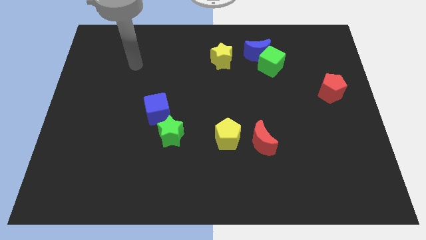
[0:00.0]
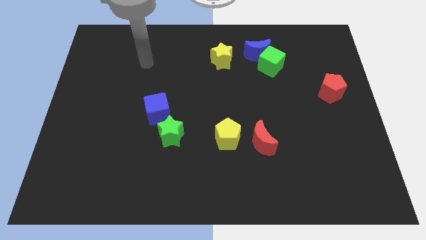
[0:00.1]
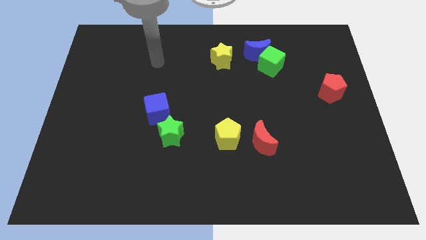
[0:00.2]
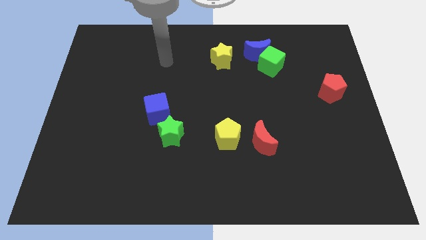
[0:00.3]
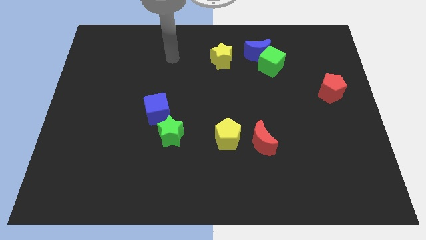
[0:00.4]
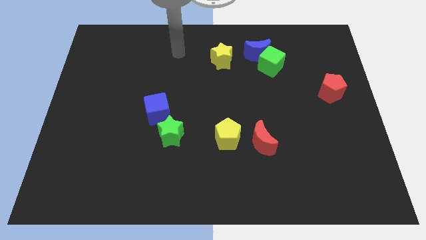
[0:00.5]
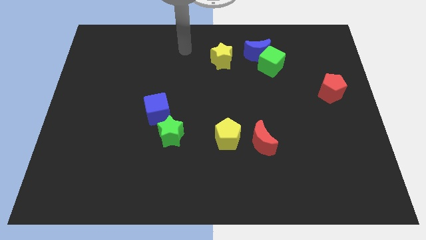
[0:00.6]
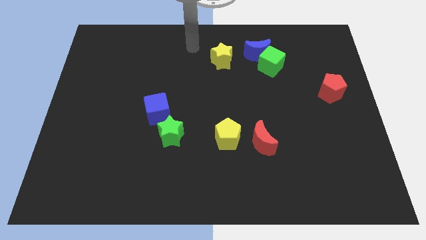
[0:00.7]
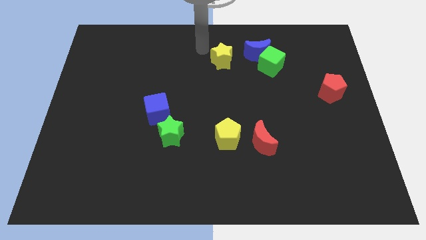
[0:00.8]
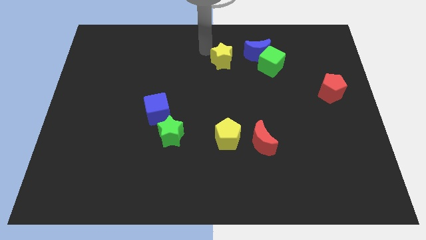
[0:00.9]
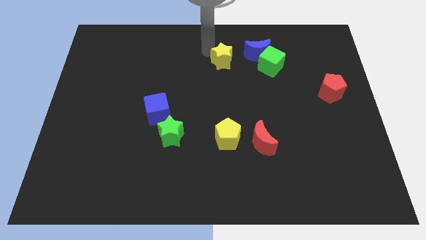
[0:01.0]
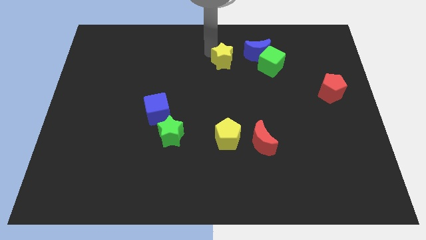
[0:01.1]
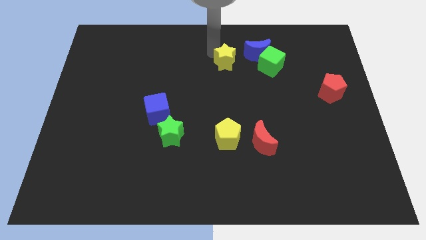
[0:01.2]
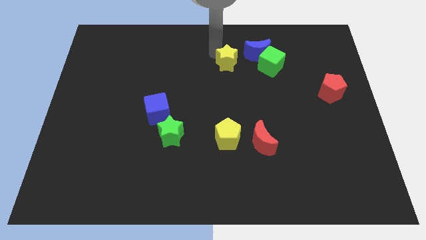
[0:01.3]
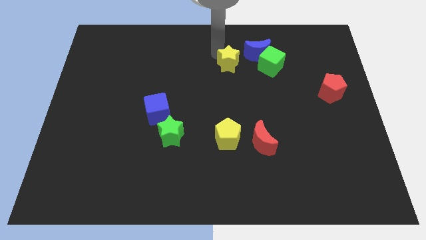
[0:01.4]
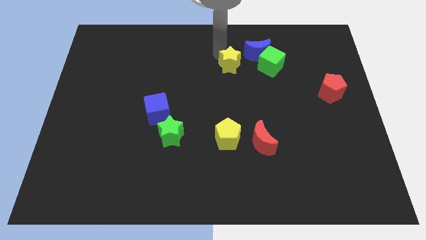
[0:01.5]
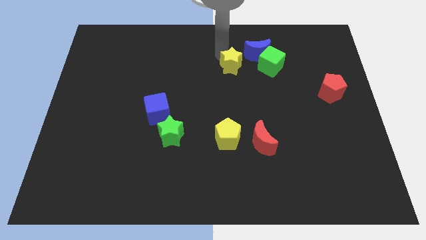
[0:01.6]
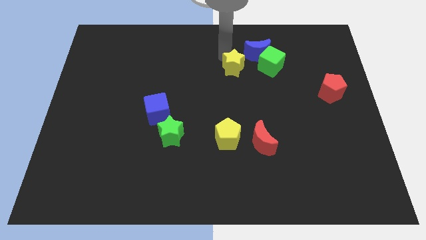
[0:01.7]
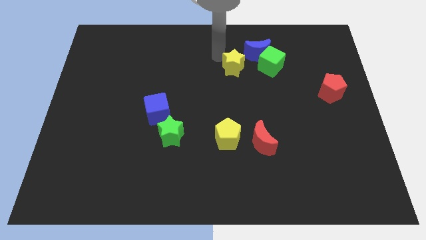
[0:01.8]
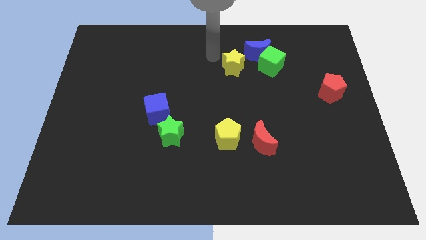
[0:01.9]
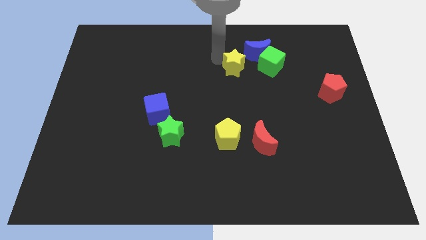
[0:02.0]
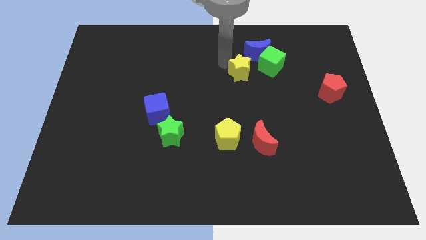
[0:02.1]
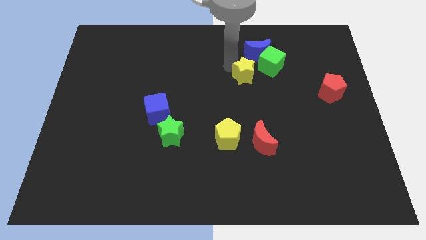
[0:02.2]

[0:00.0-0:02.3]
move the yellow star slightly downwards and right diagonally

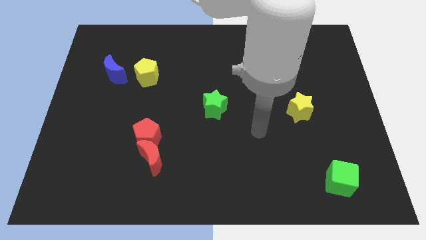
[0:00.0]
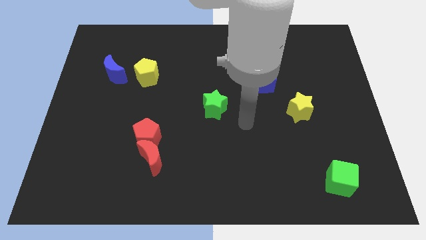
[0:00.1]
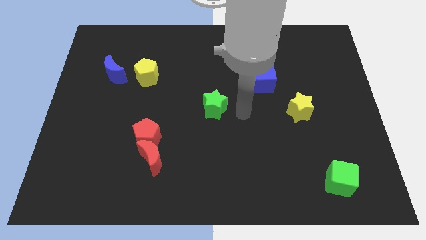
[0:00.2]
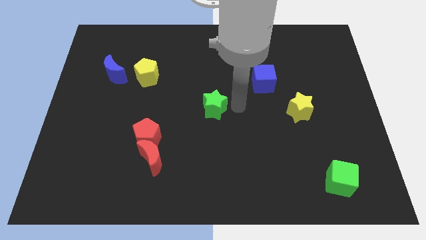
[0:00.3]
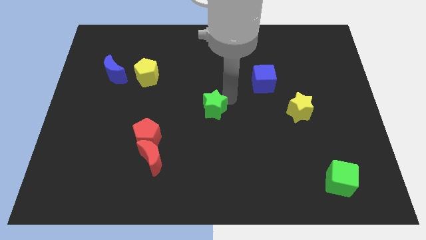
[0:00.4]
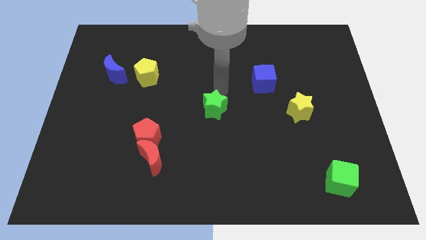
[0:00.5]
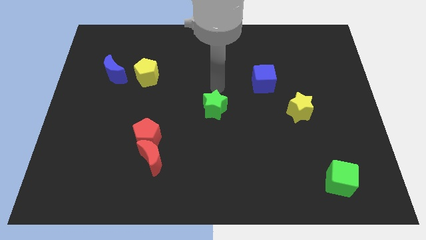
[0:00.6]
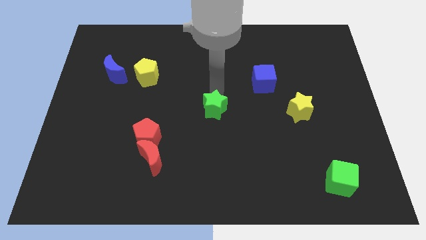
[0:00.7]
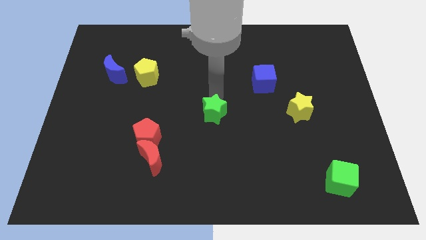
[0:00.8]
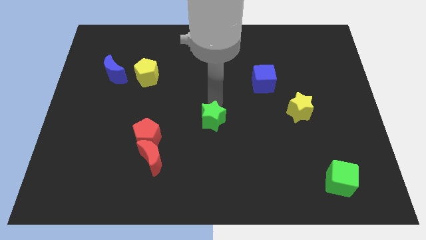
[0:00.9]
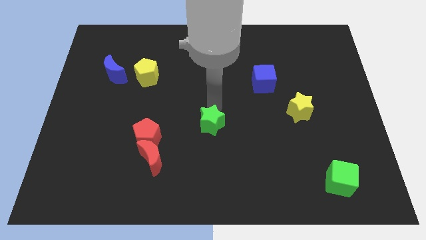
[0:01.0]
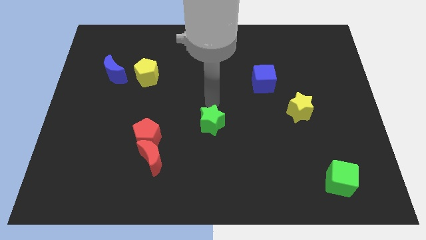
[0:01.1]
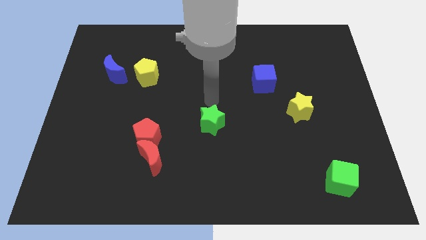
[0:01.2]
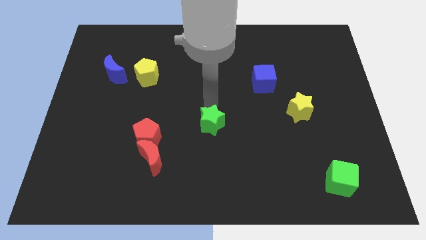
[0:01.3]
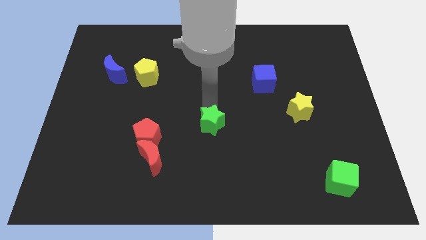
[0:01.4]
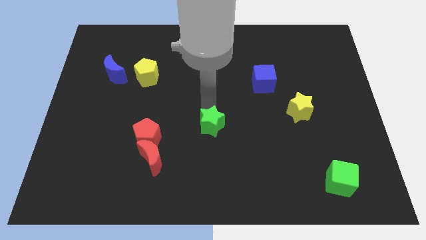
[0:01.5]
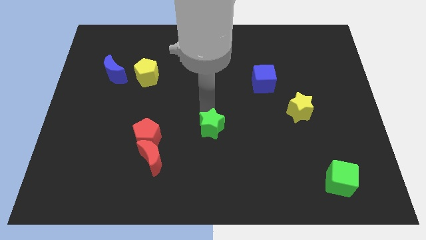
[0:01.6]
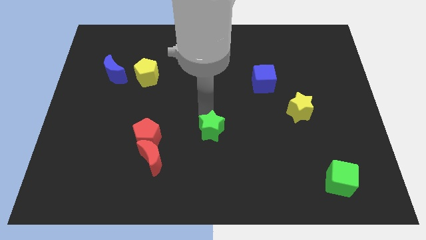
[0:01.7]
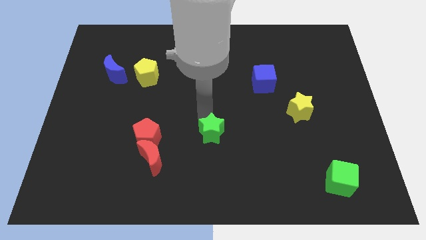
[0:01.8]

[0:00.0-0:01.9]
move the green star down a little

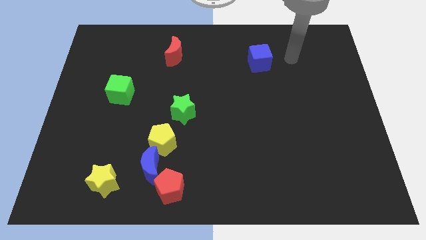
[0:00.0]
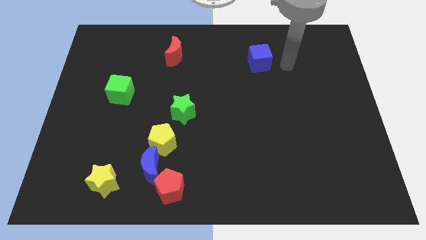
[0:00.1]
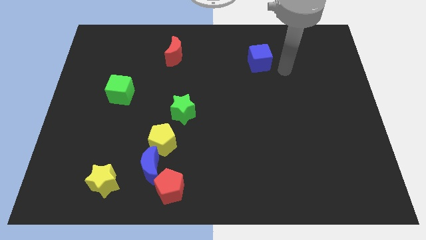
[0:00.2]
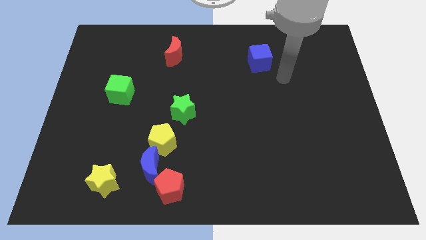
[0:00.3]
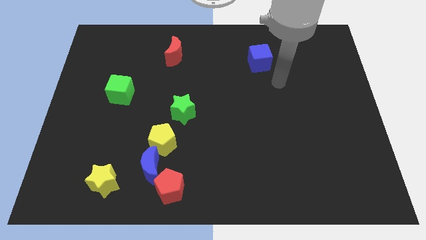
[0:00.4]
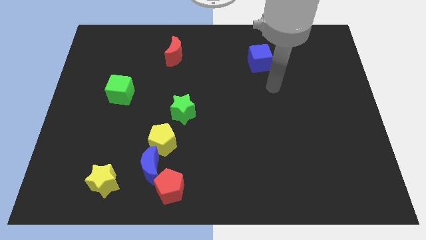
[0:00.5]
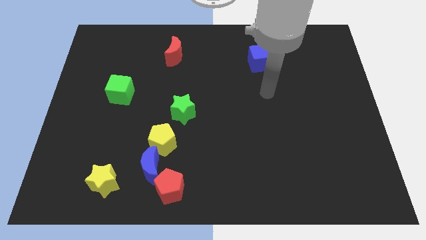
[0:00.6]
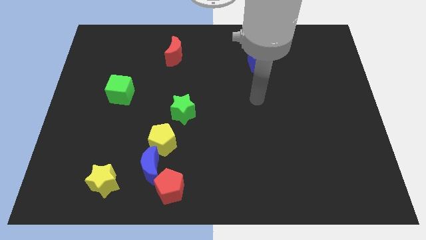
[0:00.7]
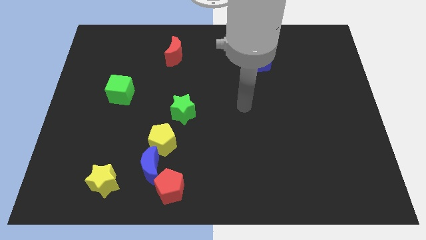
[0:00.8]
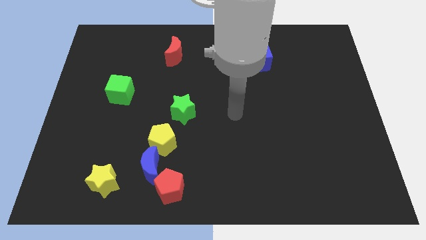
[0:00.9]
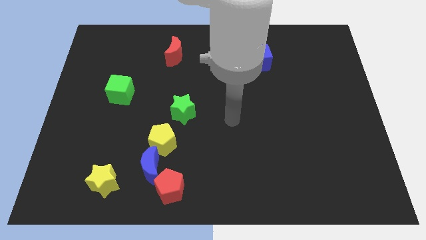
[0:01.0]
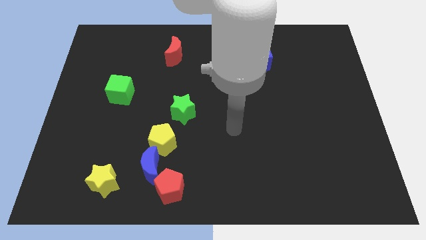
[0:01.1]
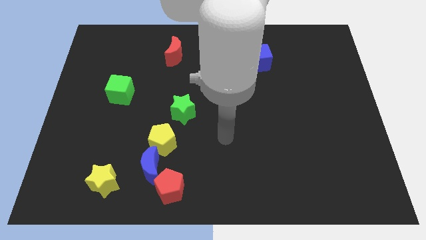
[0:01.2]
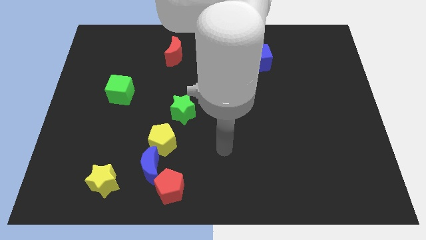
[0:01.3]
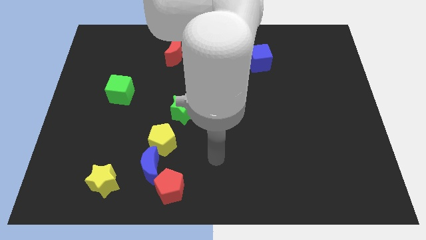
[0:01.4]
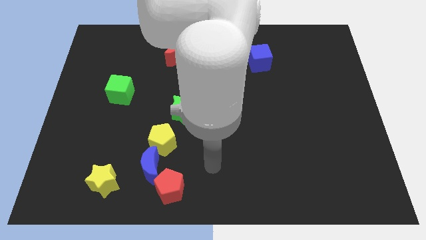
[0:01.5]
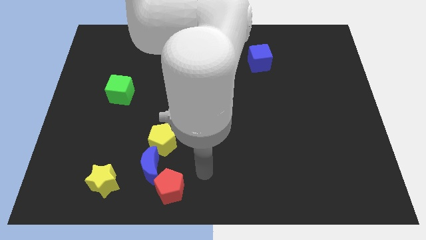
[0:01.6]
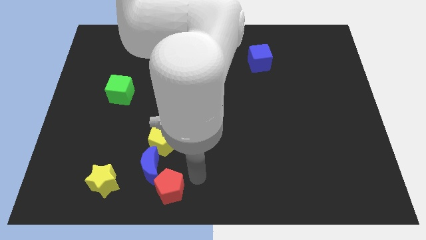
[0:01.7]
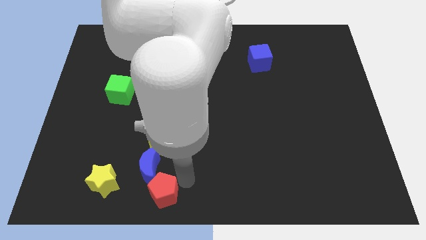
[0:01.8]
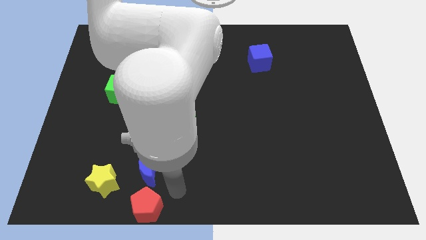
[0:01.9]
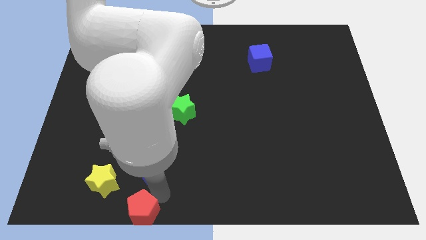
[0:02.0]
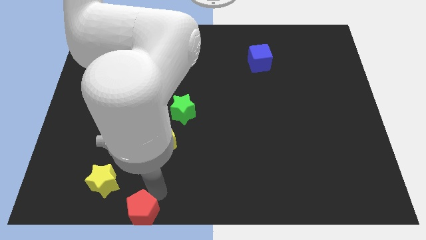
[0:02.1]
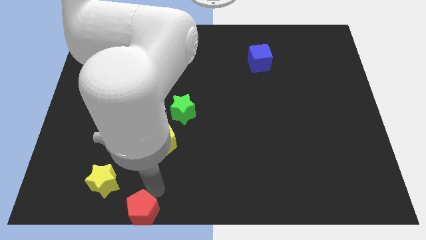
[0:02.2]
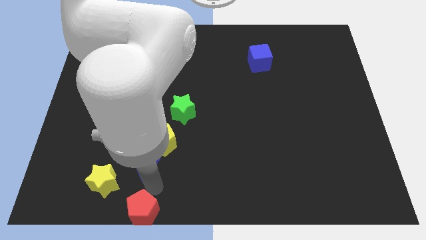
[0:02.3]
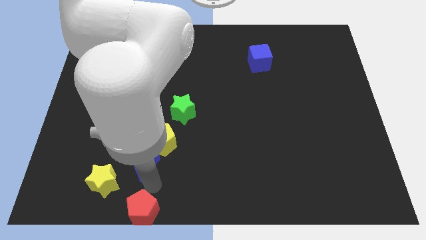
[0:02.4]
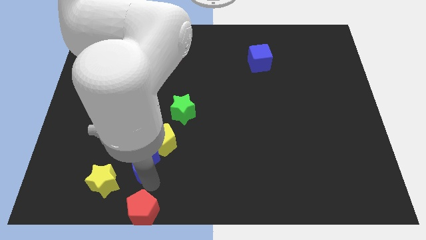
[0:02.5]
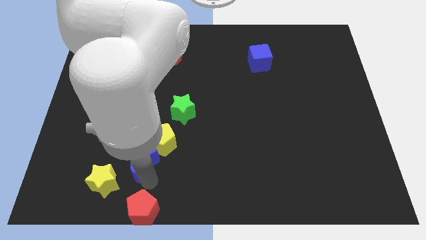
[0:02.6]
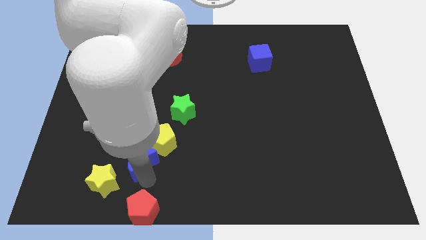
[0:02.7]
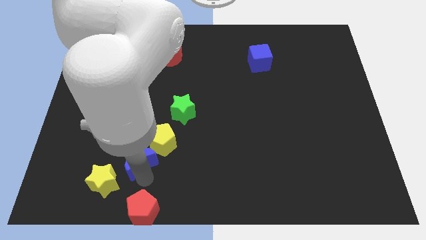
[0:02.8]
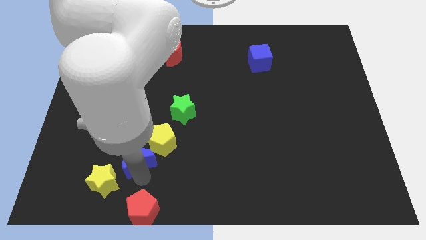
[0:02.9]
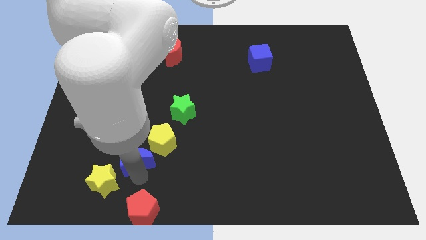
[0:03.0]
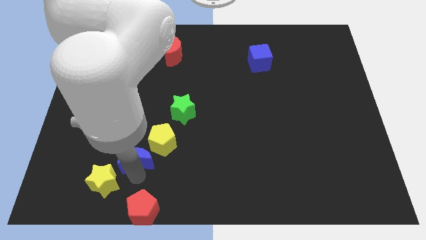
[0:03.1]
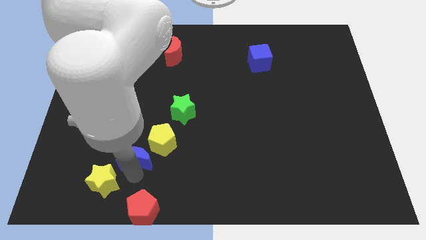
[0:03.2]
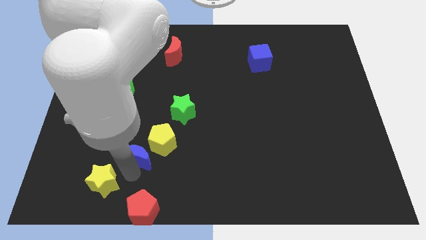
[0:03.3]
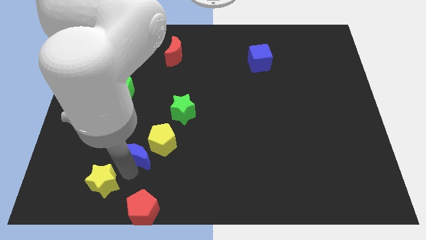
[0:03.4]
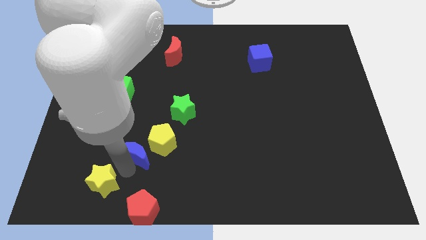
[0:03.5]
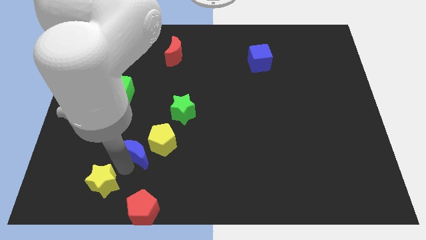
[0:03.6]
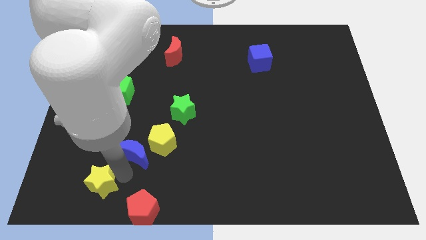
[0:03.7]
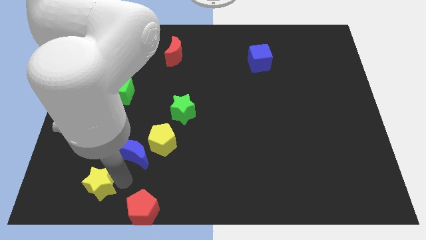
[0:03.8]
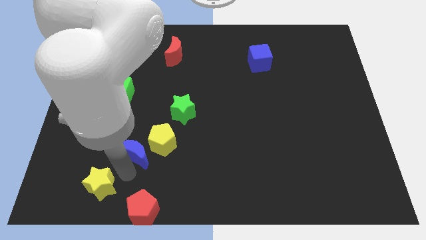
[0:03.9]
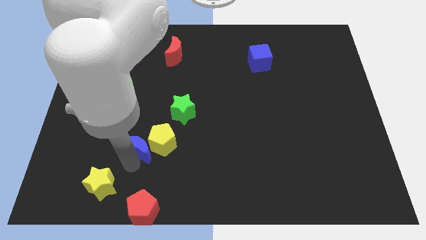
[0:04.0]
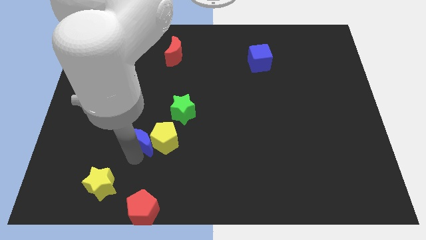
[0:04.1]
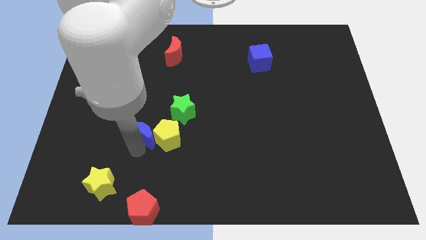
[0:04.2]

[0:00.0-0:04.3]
move the blue moon somewhat upwards
